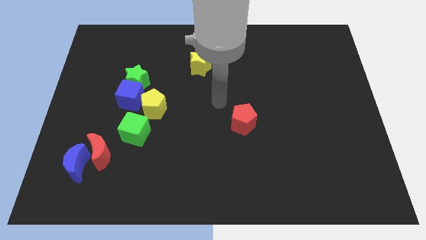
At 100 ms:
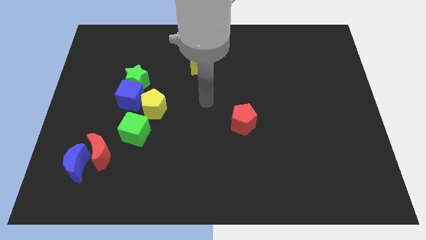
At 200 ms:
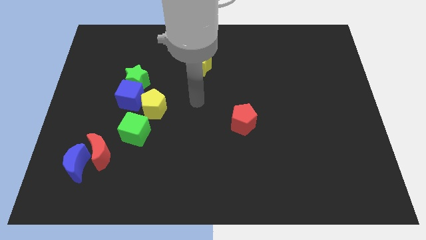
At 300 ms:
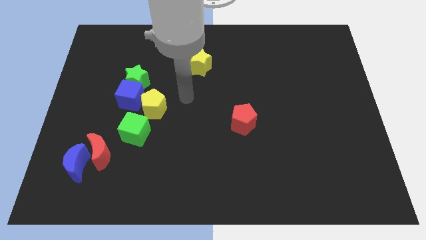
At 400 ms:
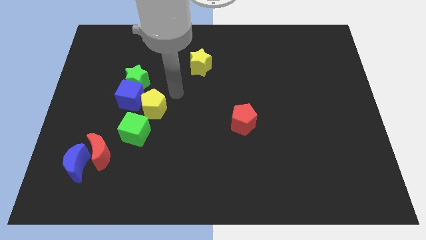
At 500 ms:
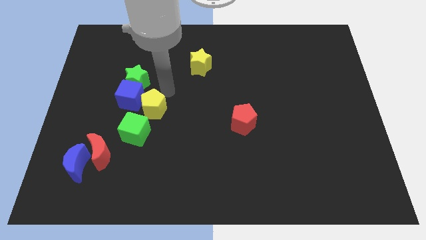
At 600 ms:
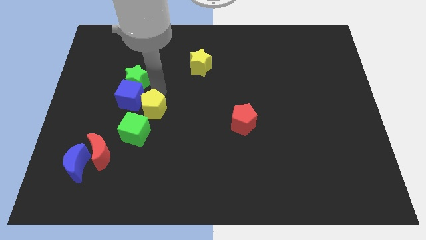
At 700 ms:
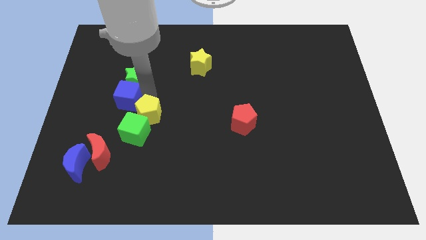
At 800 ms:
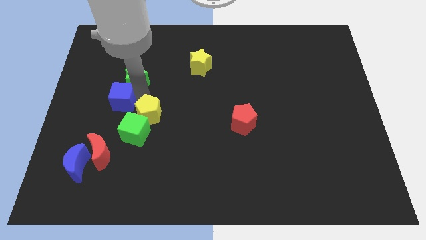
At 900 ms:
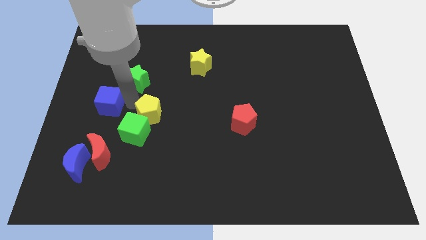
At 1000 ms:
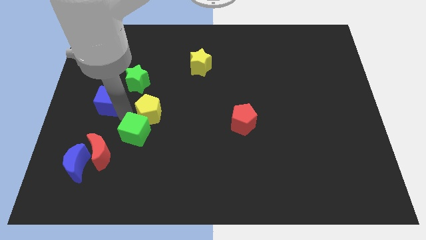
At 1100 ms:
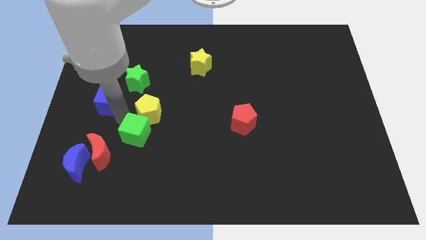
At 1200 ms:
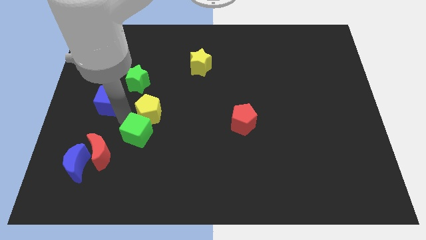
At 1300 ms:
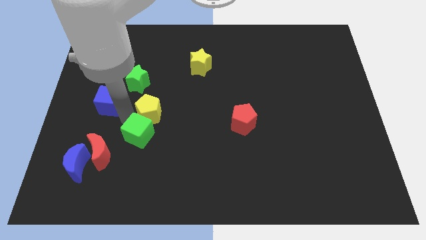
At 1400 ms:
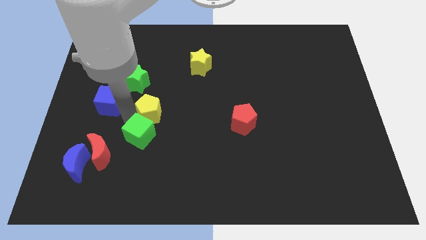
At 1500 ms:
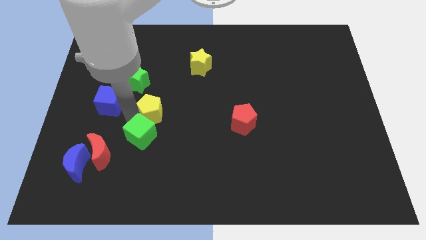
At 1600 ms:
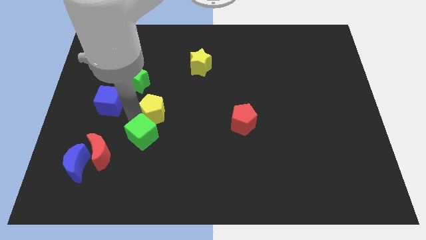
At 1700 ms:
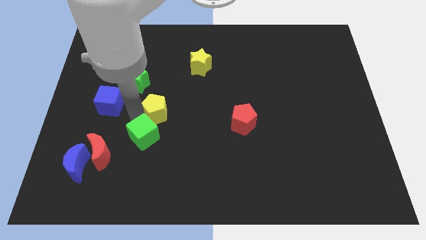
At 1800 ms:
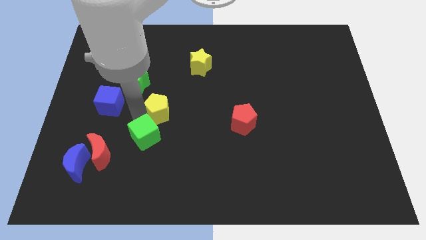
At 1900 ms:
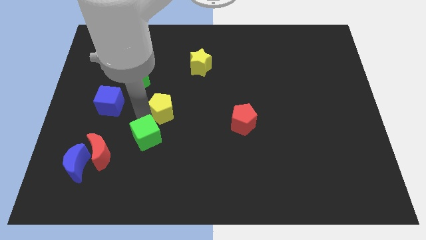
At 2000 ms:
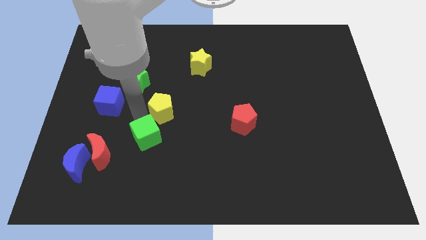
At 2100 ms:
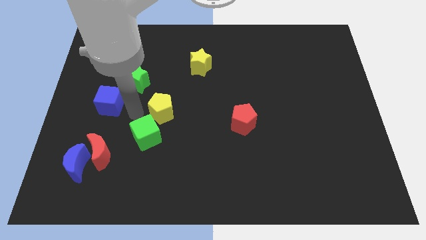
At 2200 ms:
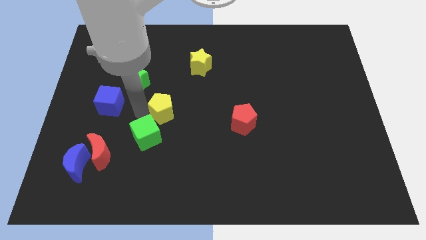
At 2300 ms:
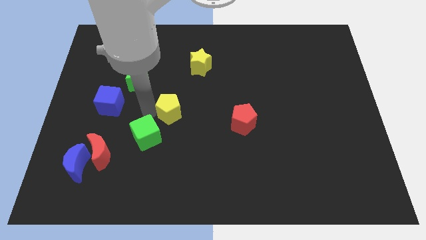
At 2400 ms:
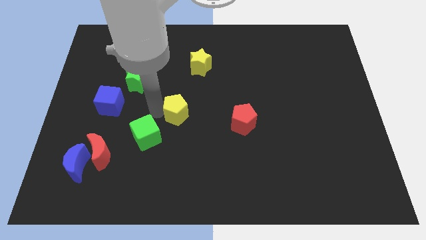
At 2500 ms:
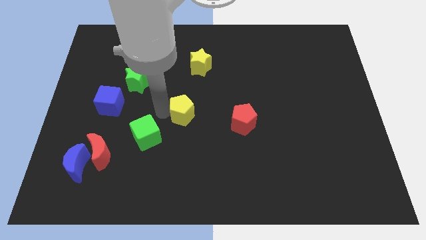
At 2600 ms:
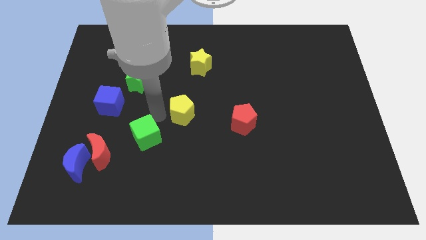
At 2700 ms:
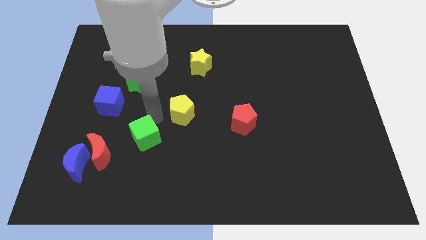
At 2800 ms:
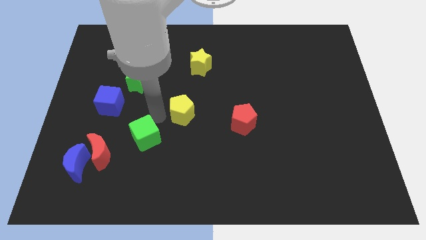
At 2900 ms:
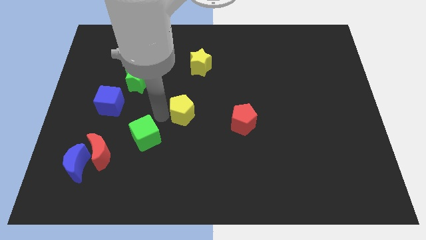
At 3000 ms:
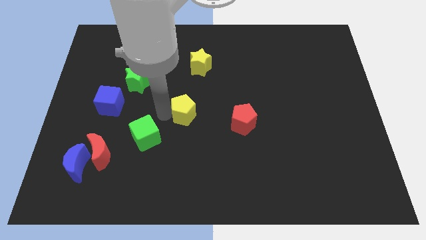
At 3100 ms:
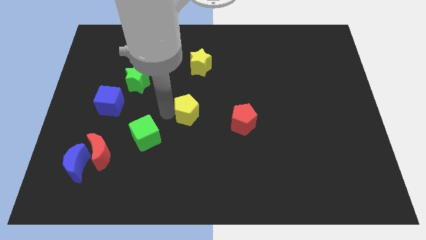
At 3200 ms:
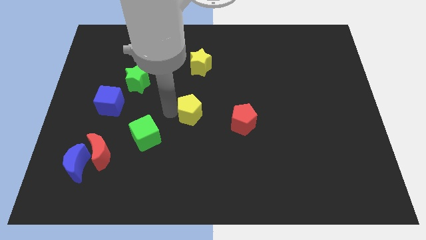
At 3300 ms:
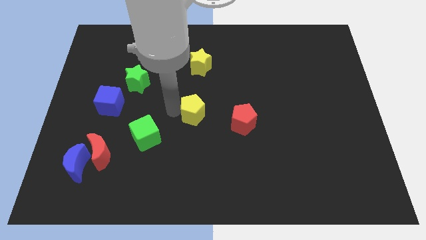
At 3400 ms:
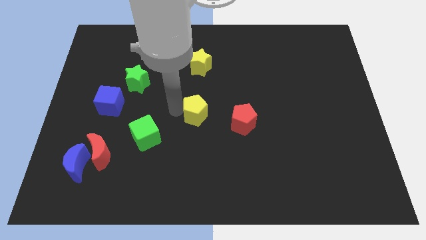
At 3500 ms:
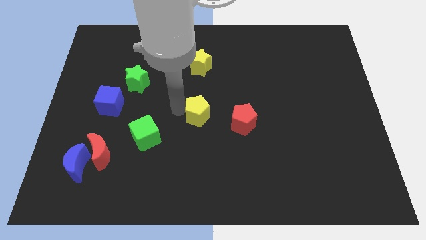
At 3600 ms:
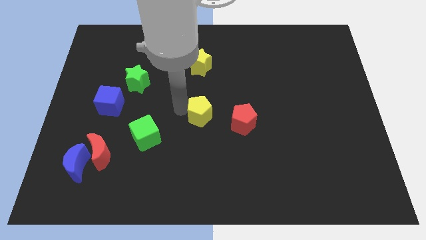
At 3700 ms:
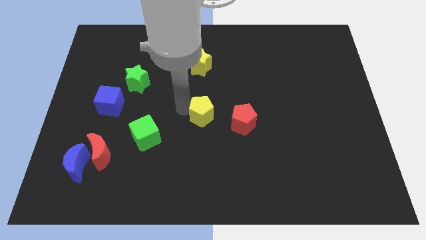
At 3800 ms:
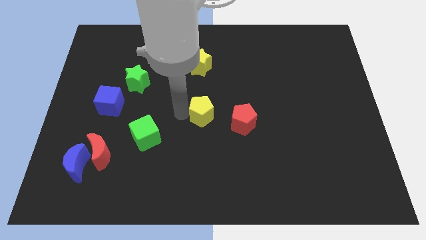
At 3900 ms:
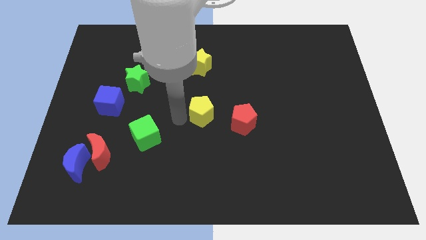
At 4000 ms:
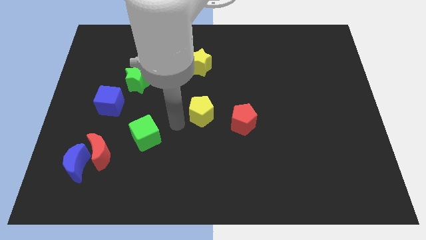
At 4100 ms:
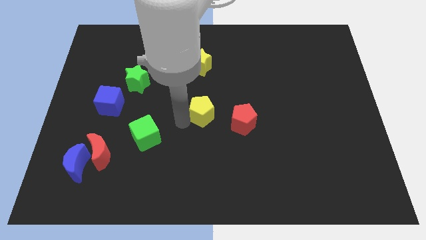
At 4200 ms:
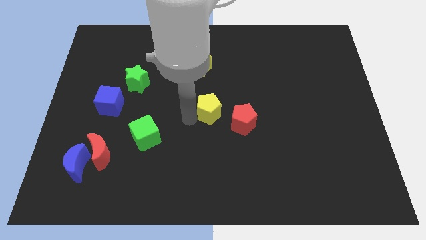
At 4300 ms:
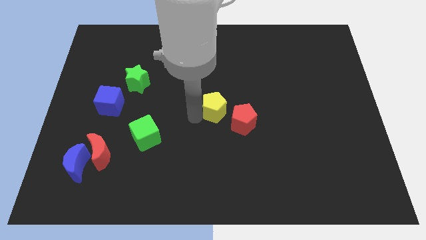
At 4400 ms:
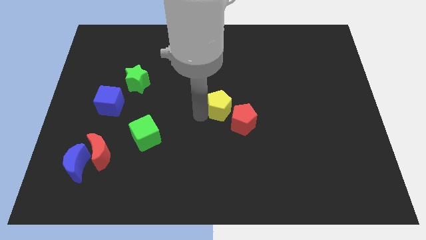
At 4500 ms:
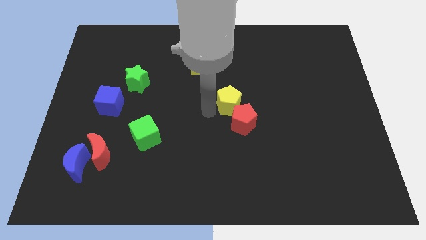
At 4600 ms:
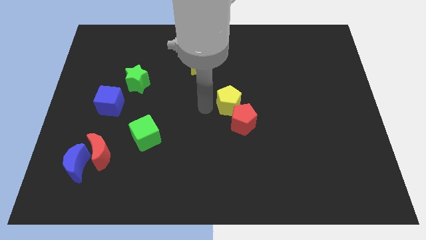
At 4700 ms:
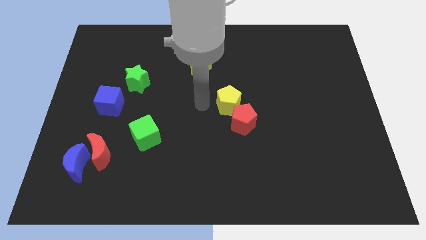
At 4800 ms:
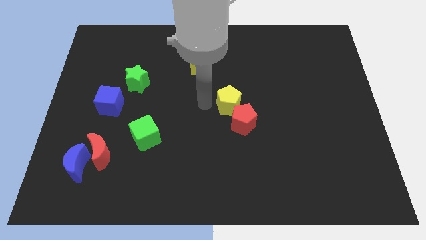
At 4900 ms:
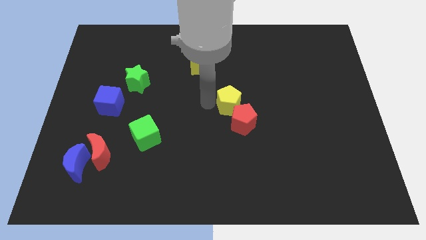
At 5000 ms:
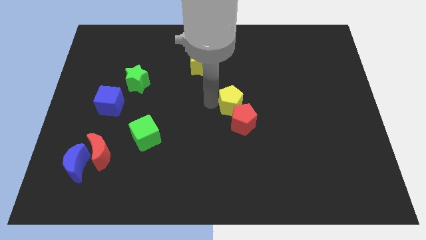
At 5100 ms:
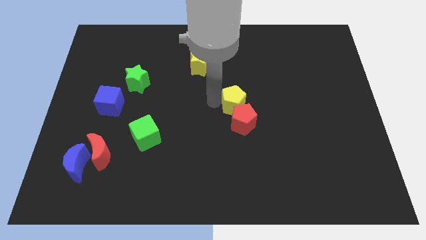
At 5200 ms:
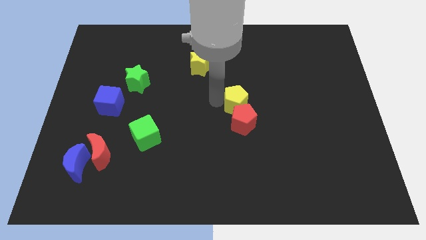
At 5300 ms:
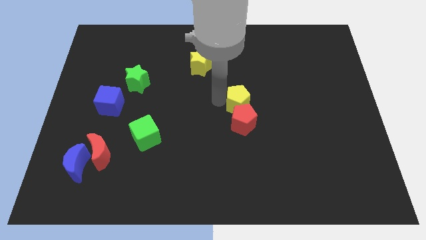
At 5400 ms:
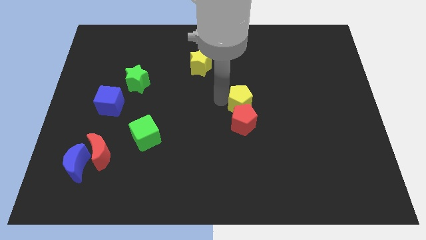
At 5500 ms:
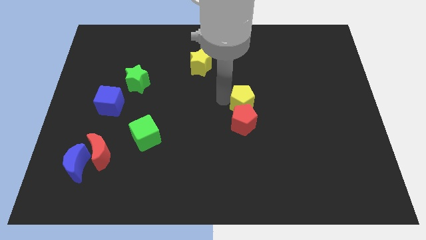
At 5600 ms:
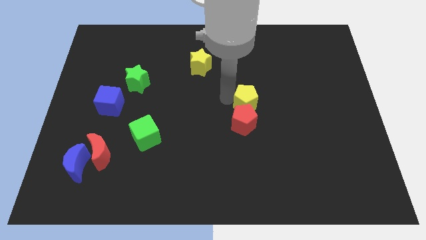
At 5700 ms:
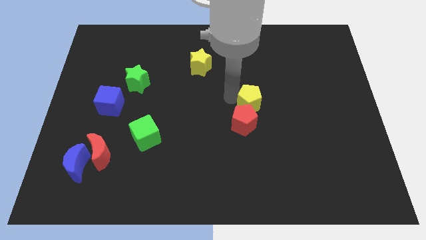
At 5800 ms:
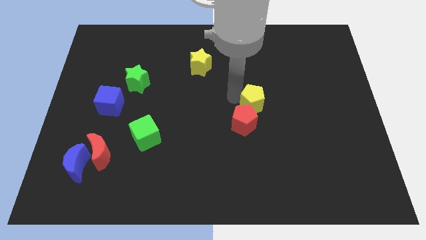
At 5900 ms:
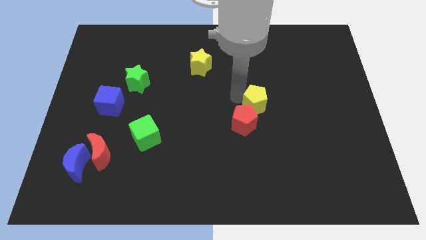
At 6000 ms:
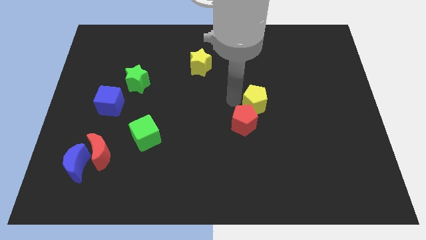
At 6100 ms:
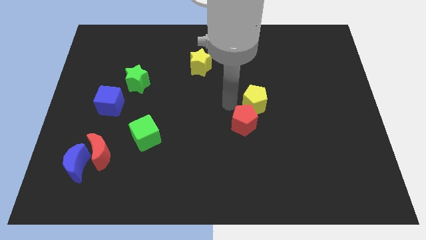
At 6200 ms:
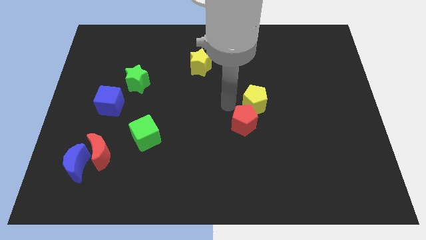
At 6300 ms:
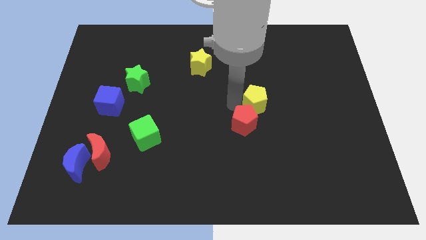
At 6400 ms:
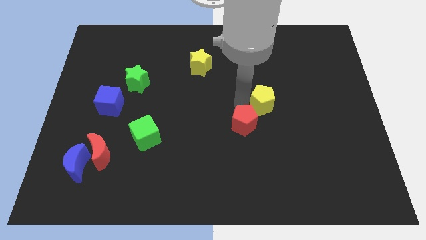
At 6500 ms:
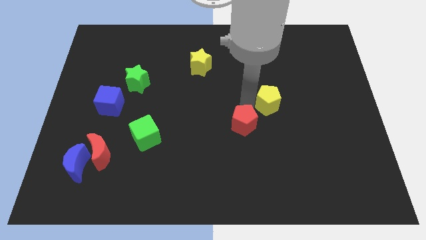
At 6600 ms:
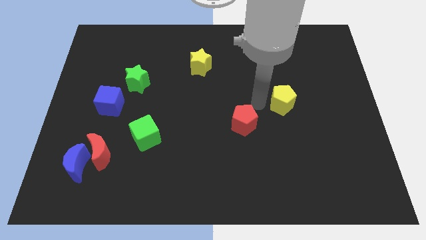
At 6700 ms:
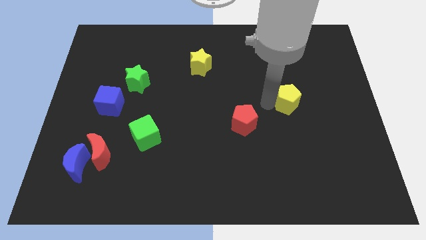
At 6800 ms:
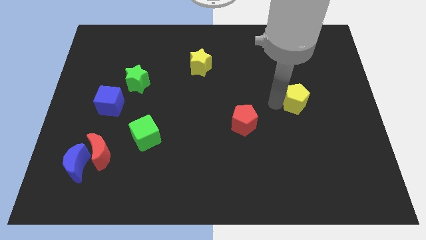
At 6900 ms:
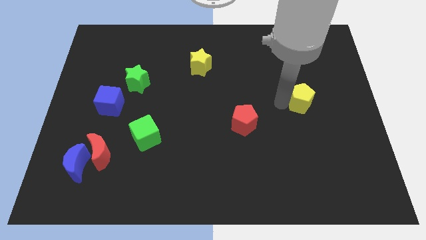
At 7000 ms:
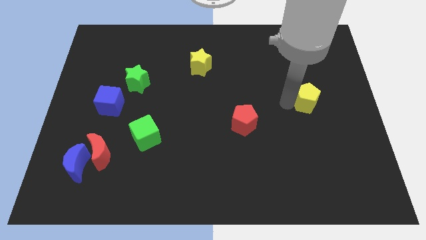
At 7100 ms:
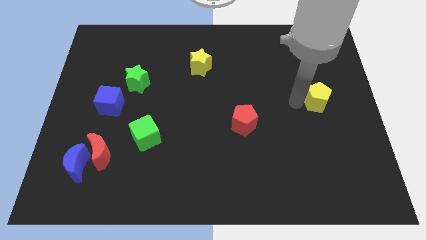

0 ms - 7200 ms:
move the yellow pentagon to the right side
